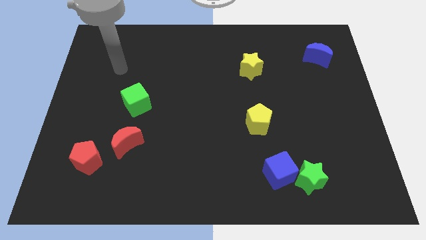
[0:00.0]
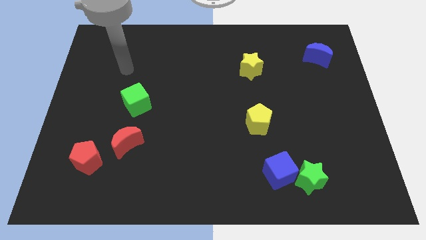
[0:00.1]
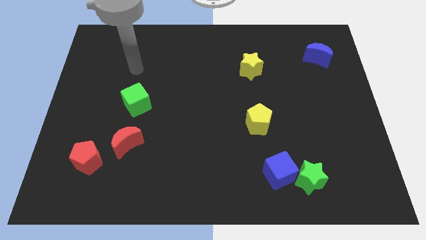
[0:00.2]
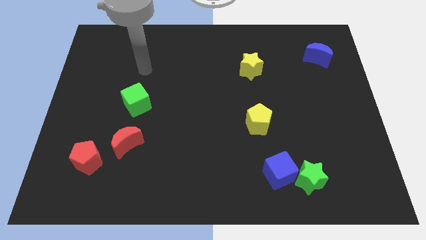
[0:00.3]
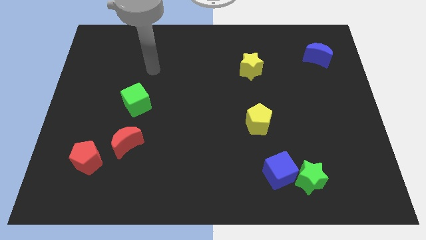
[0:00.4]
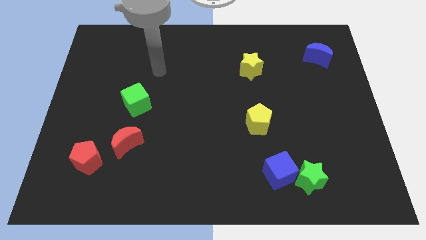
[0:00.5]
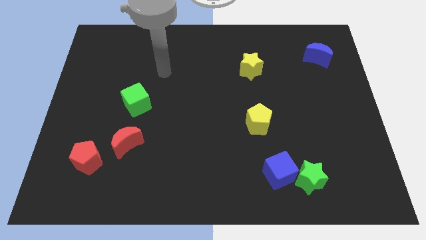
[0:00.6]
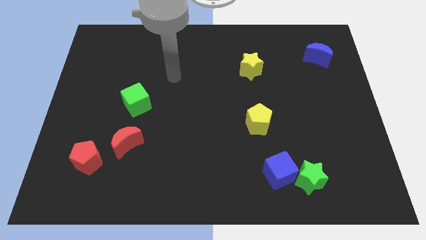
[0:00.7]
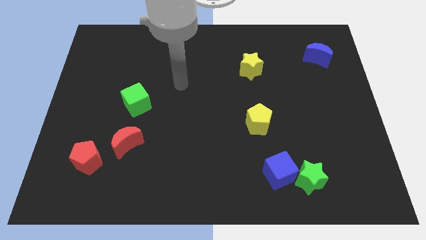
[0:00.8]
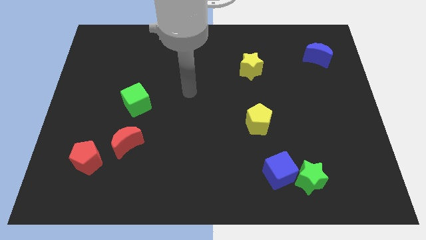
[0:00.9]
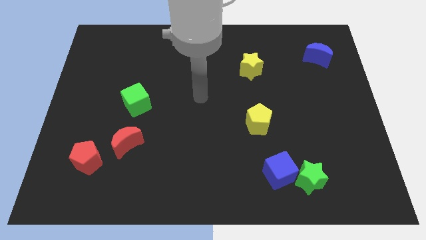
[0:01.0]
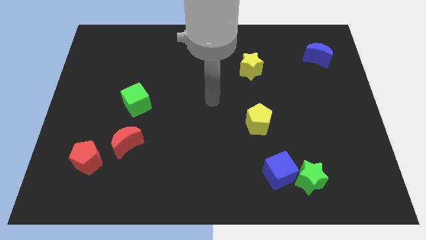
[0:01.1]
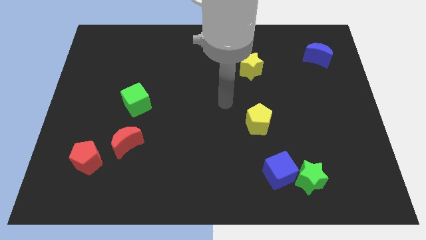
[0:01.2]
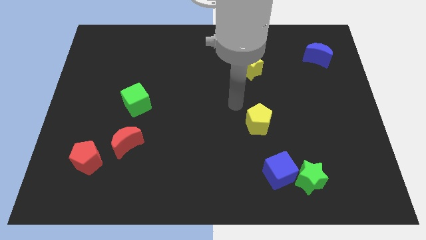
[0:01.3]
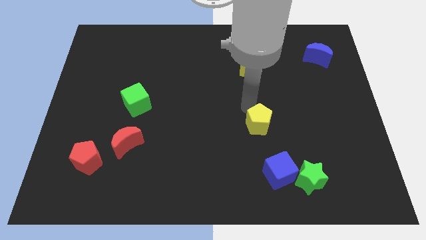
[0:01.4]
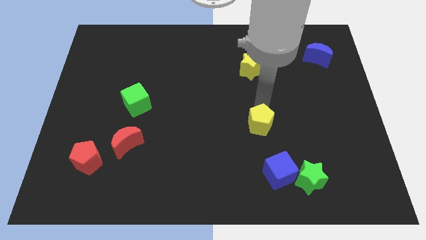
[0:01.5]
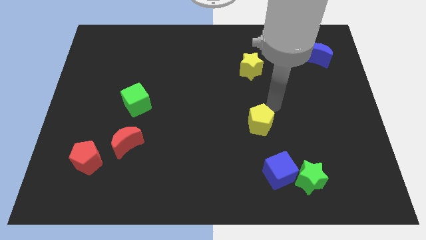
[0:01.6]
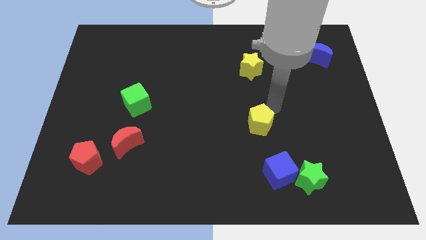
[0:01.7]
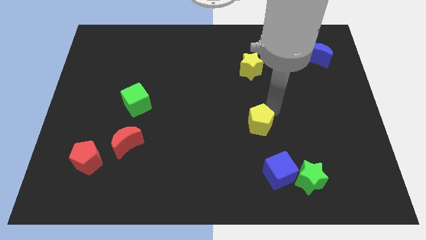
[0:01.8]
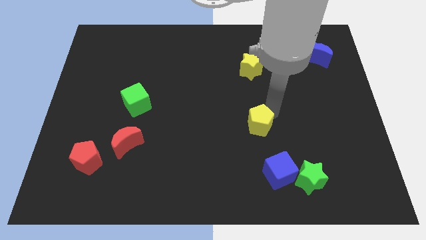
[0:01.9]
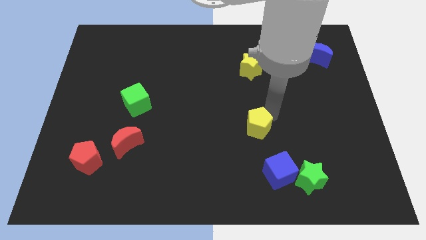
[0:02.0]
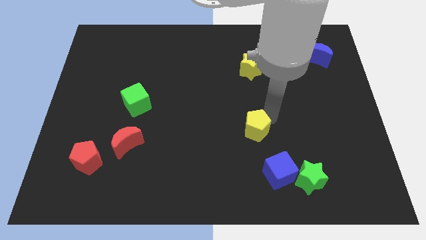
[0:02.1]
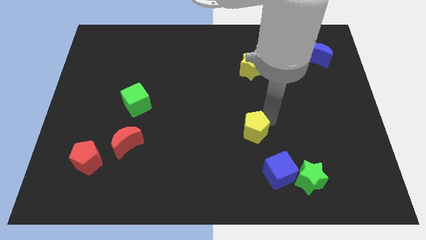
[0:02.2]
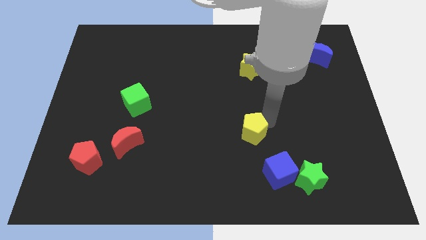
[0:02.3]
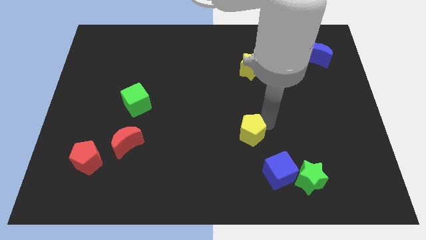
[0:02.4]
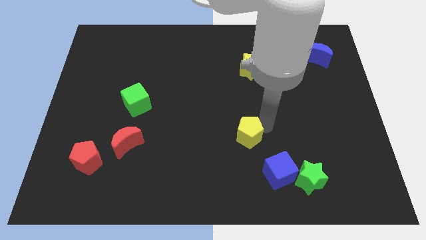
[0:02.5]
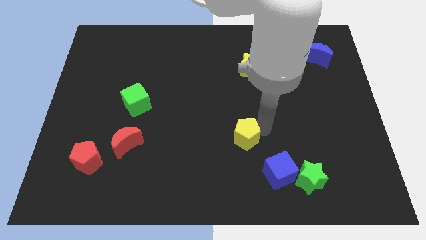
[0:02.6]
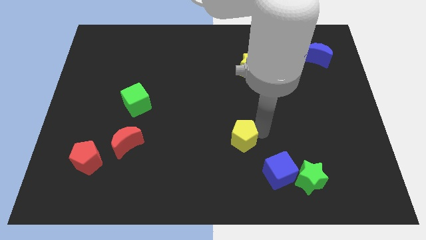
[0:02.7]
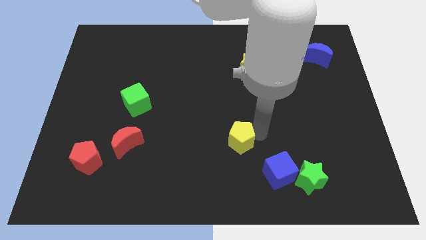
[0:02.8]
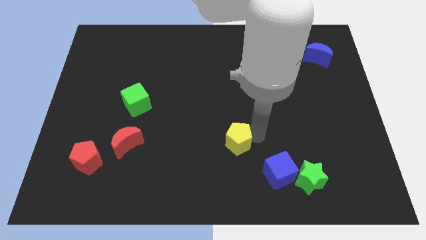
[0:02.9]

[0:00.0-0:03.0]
slightly move the yellow pentagon downwards and to the left

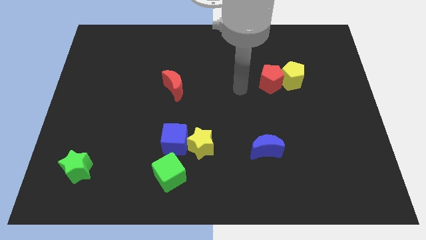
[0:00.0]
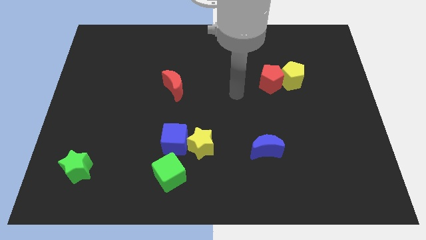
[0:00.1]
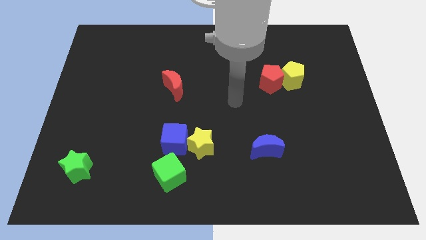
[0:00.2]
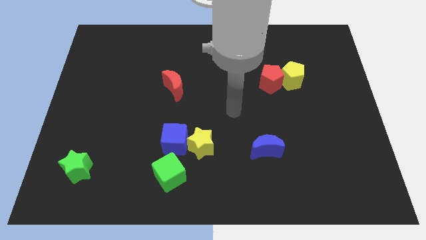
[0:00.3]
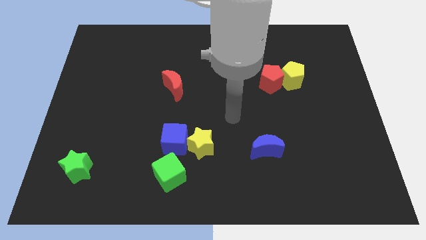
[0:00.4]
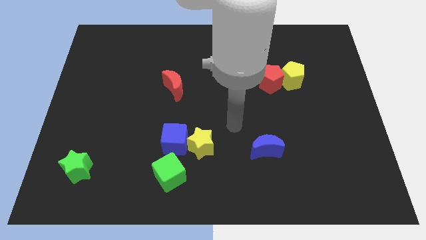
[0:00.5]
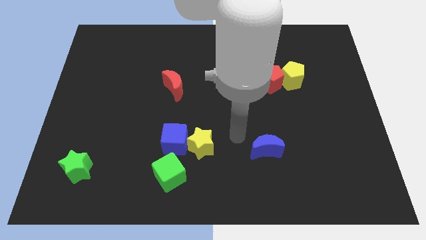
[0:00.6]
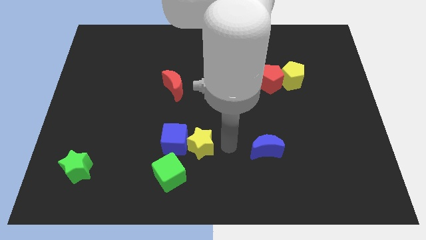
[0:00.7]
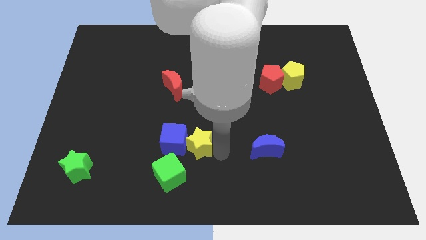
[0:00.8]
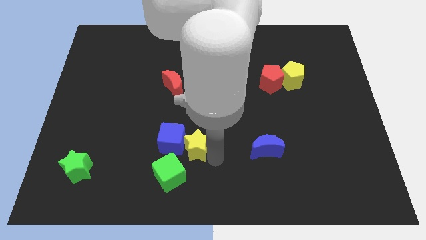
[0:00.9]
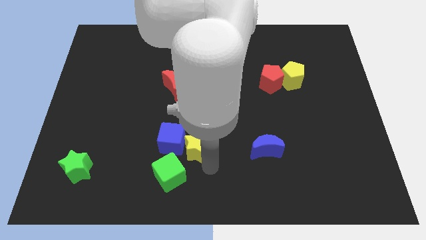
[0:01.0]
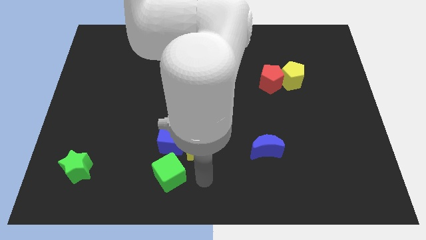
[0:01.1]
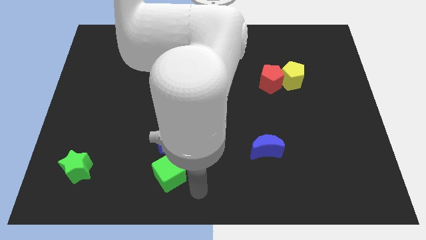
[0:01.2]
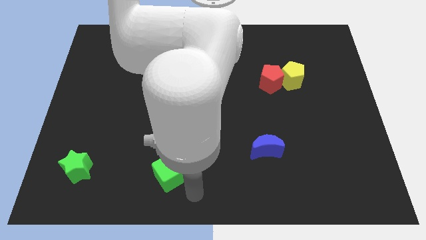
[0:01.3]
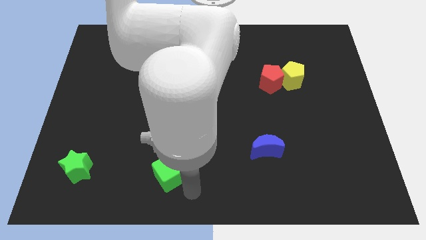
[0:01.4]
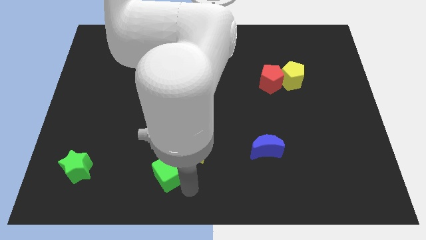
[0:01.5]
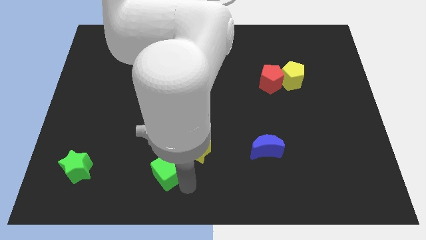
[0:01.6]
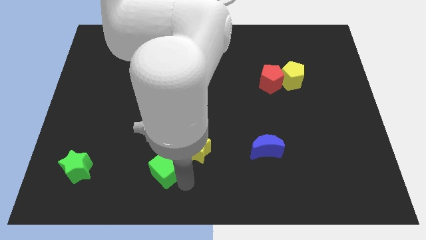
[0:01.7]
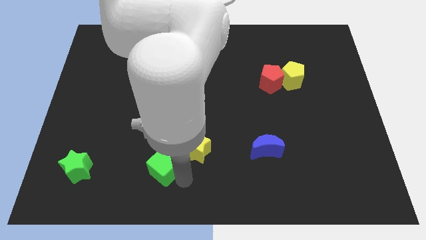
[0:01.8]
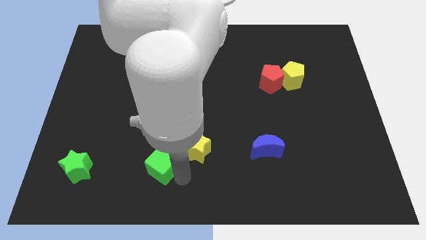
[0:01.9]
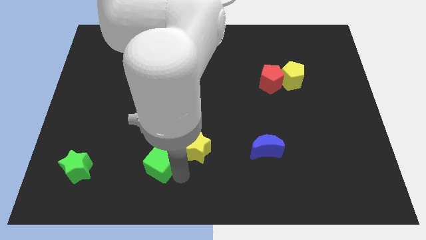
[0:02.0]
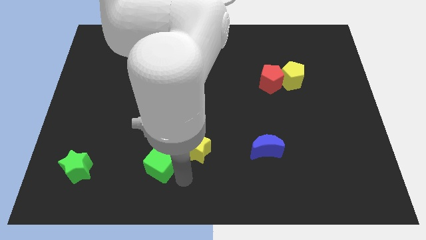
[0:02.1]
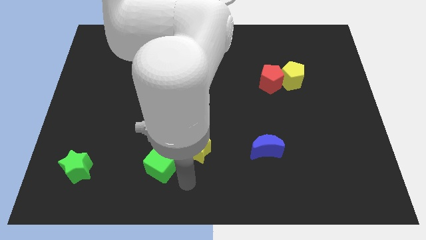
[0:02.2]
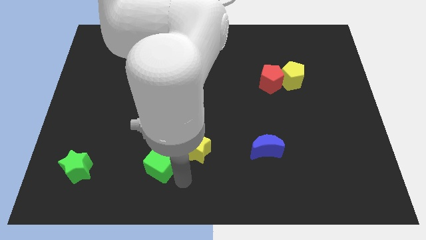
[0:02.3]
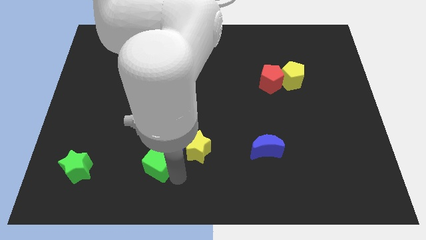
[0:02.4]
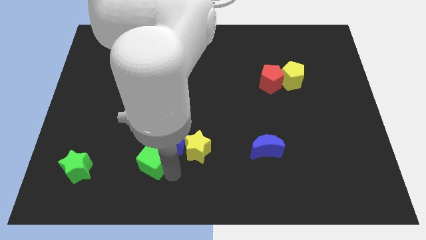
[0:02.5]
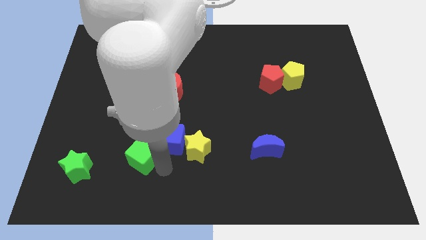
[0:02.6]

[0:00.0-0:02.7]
slightly push the green cube upwards and then left

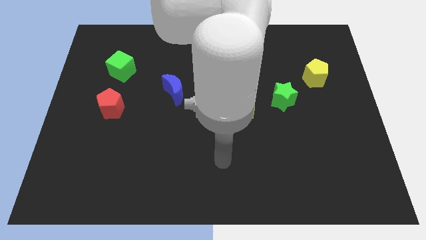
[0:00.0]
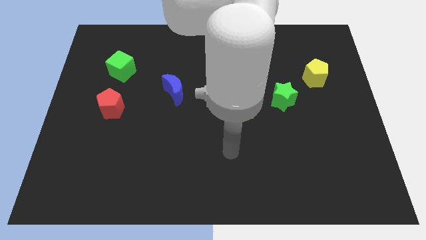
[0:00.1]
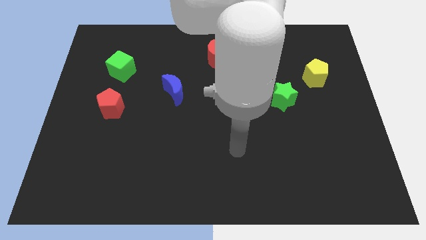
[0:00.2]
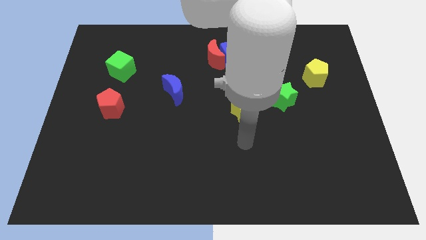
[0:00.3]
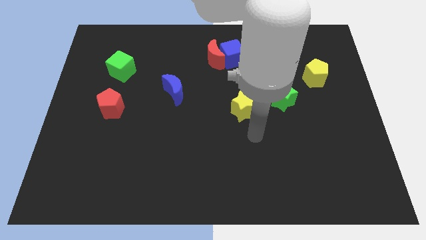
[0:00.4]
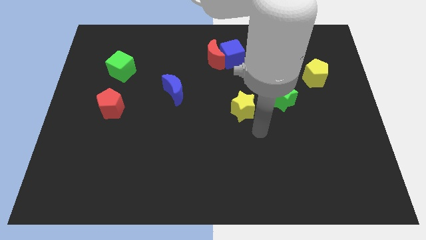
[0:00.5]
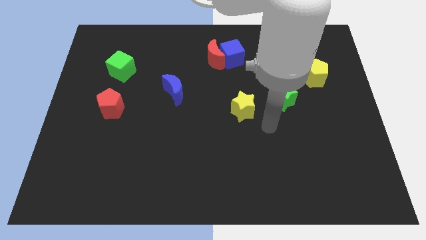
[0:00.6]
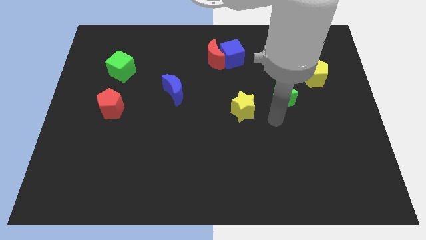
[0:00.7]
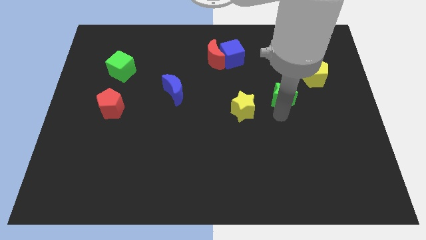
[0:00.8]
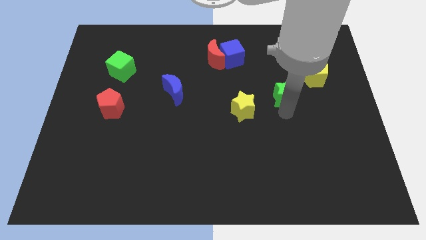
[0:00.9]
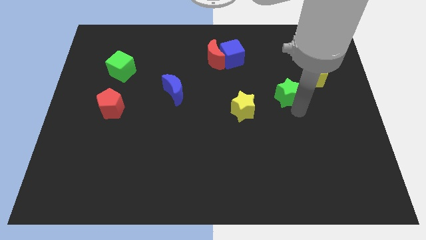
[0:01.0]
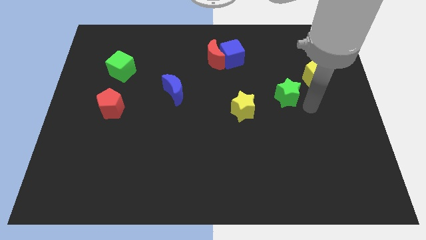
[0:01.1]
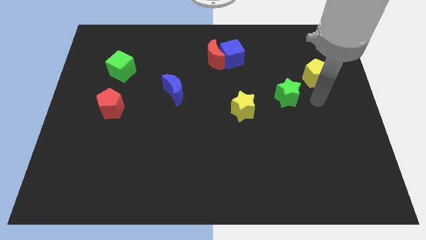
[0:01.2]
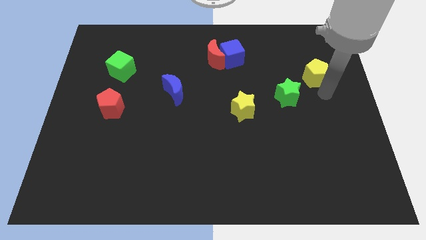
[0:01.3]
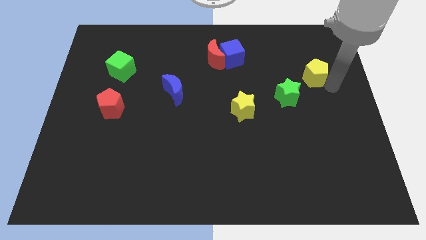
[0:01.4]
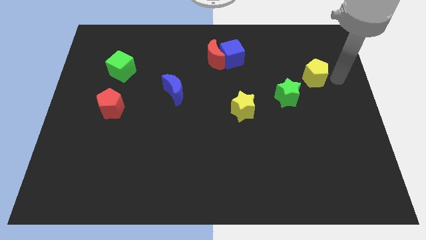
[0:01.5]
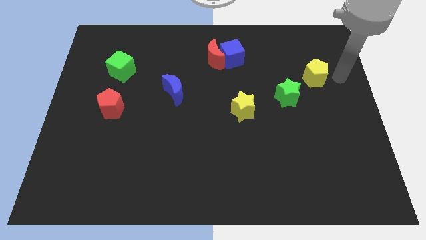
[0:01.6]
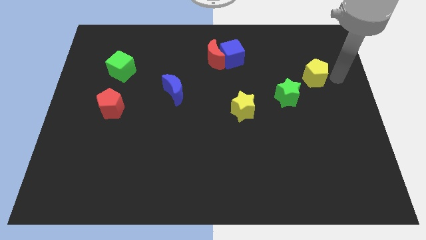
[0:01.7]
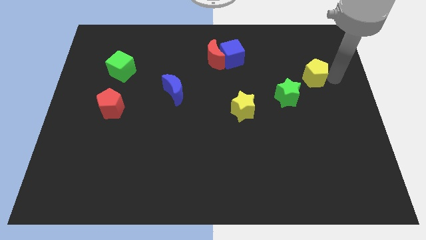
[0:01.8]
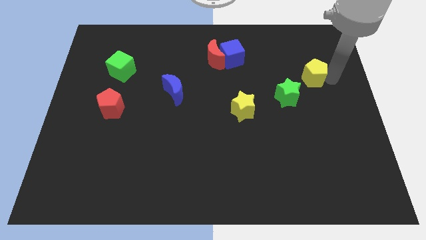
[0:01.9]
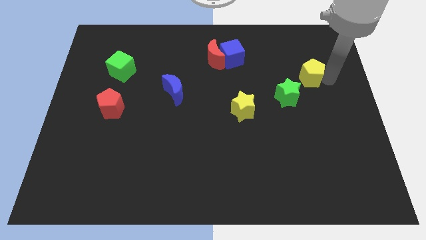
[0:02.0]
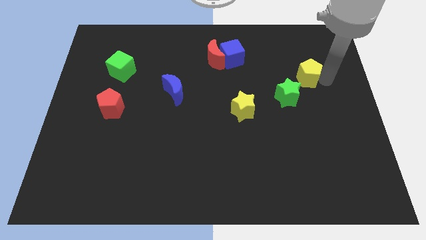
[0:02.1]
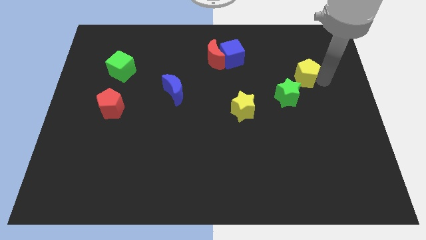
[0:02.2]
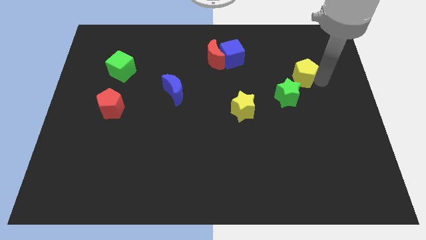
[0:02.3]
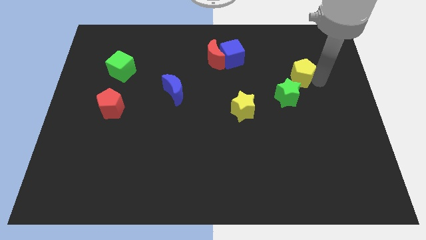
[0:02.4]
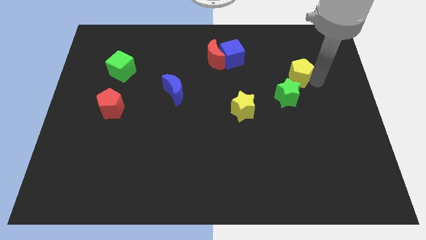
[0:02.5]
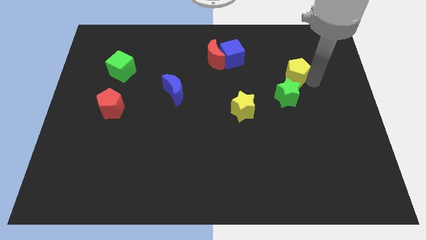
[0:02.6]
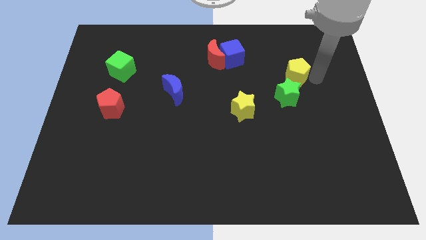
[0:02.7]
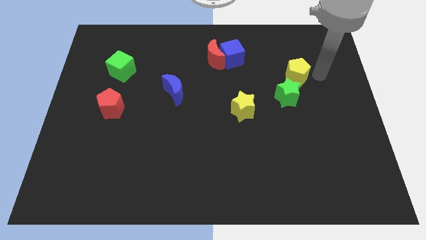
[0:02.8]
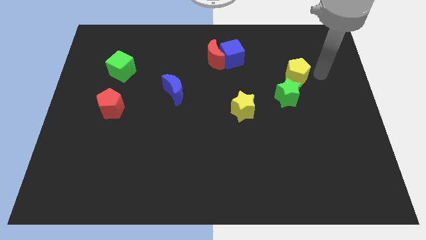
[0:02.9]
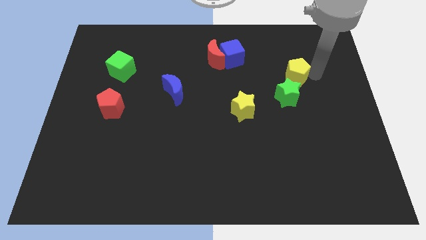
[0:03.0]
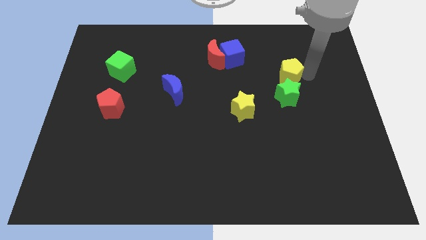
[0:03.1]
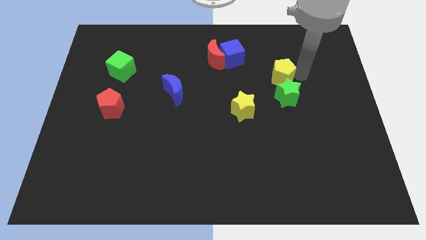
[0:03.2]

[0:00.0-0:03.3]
slightly slide the yellow pentagon to the left
